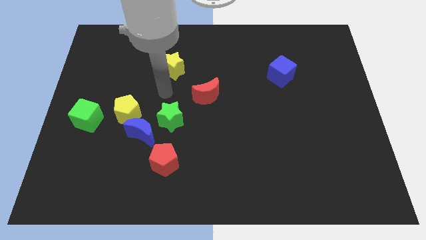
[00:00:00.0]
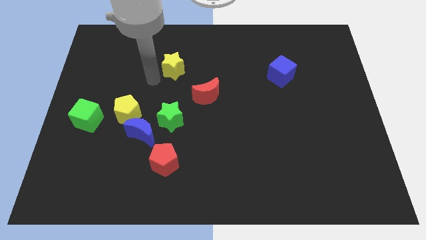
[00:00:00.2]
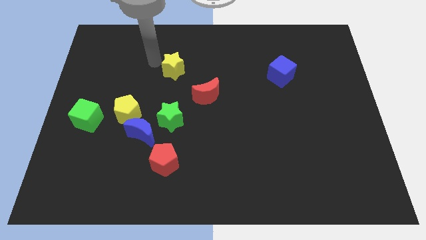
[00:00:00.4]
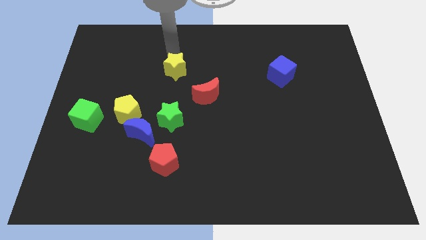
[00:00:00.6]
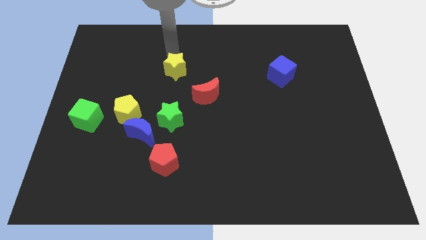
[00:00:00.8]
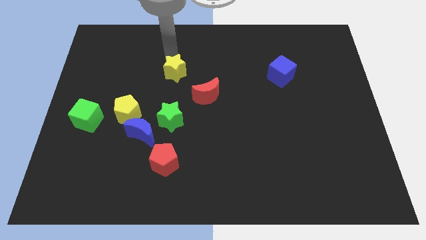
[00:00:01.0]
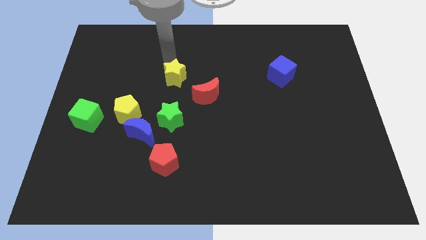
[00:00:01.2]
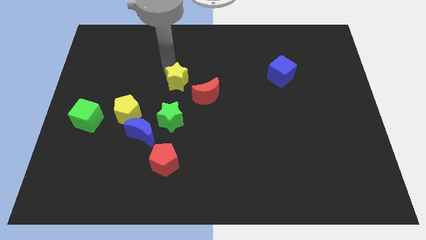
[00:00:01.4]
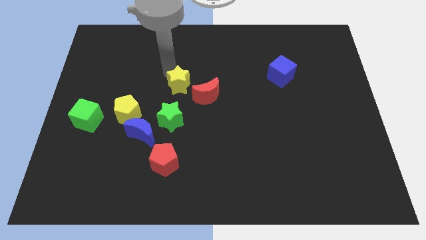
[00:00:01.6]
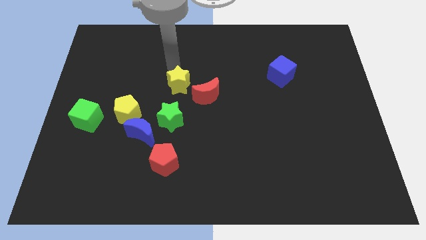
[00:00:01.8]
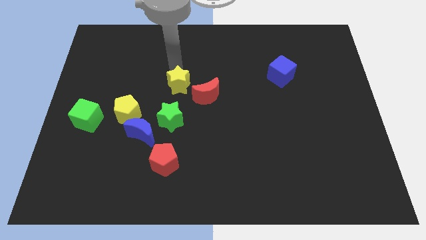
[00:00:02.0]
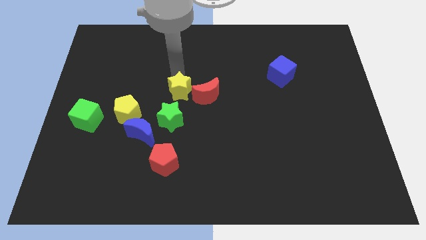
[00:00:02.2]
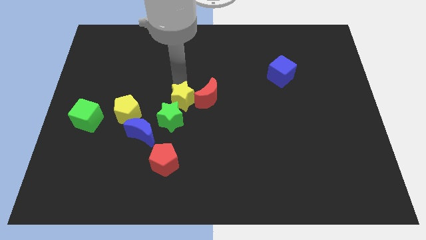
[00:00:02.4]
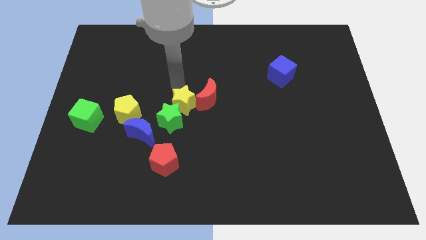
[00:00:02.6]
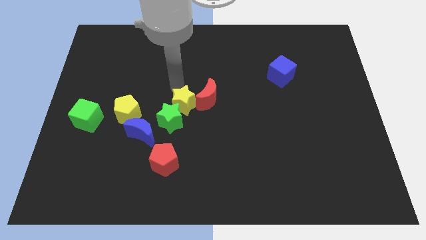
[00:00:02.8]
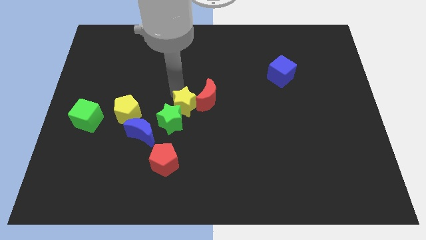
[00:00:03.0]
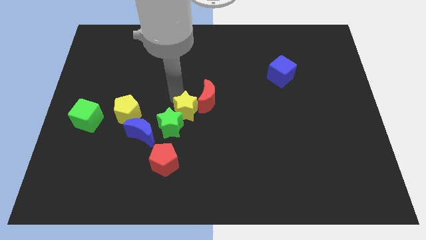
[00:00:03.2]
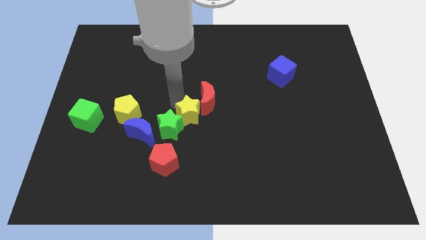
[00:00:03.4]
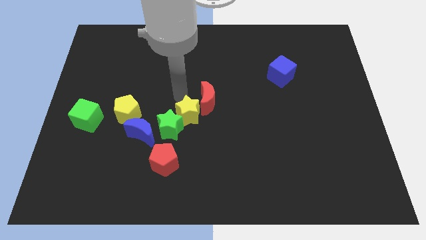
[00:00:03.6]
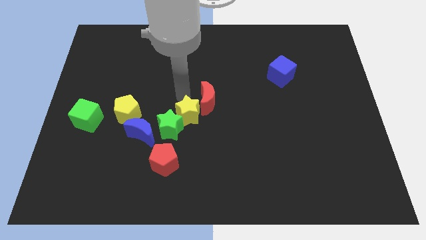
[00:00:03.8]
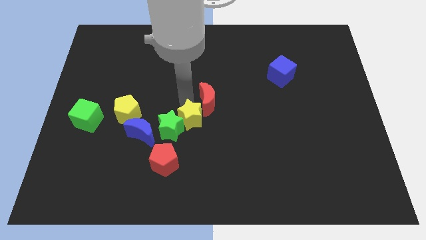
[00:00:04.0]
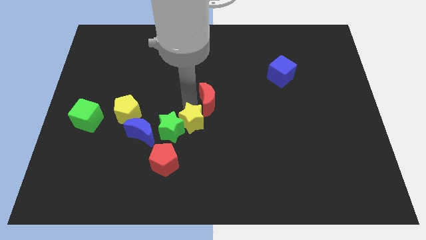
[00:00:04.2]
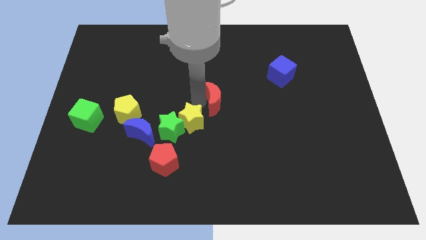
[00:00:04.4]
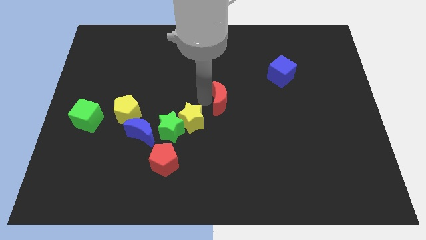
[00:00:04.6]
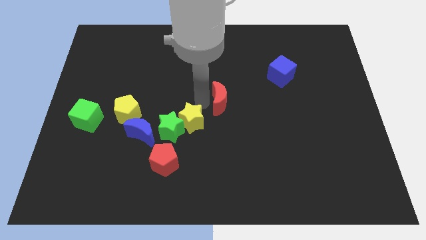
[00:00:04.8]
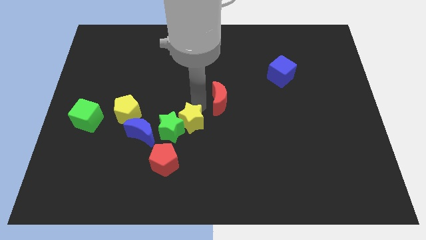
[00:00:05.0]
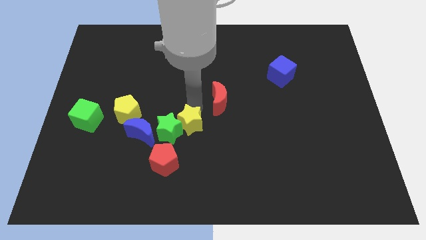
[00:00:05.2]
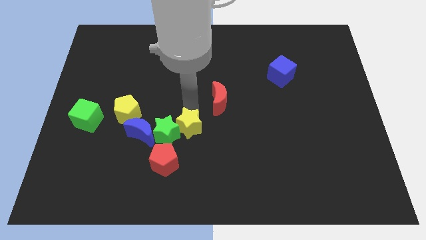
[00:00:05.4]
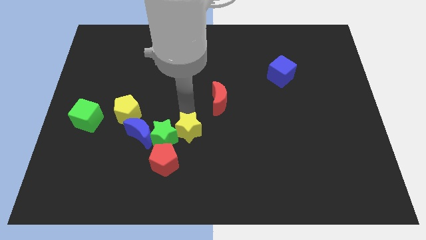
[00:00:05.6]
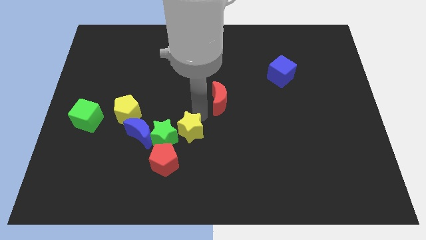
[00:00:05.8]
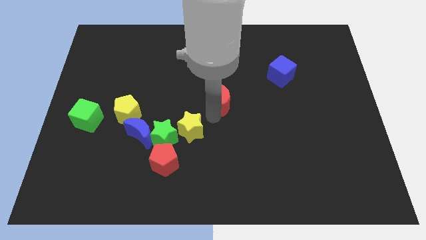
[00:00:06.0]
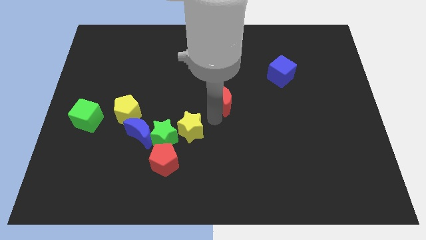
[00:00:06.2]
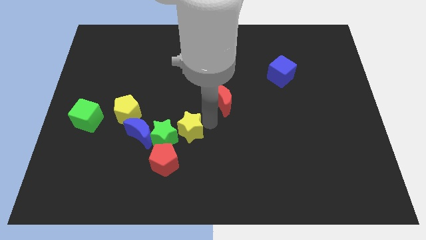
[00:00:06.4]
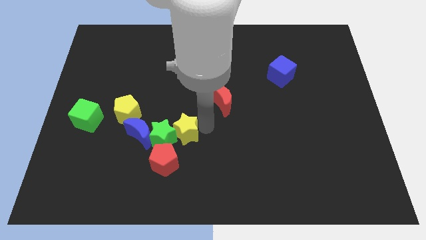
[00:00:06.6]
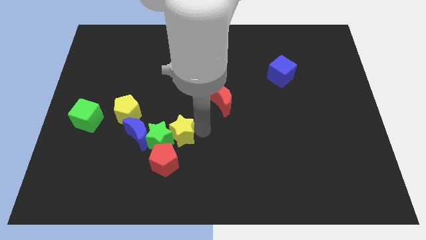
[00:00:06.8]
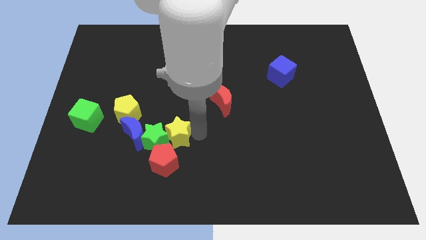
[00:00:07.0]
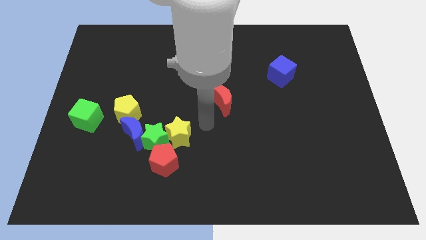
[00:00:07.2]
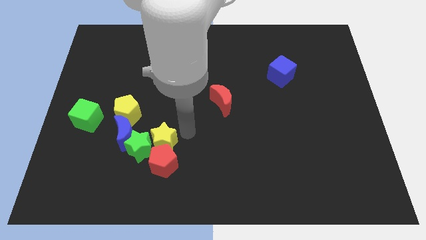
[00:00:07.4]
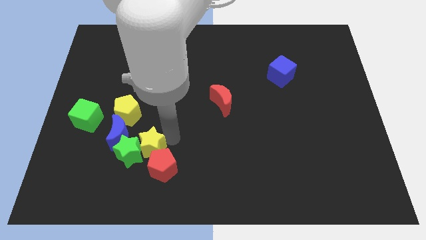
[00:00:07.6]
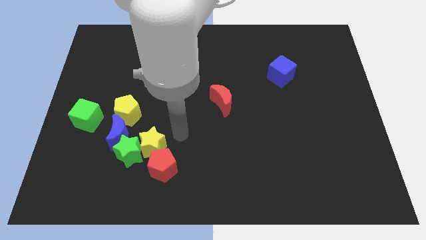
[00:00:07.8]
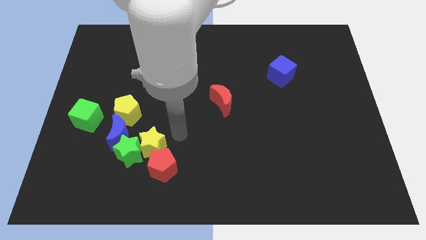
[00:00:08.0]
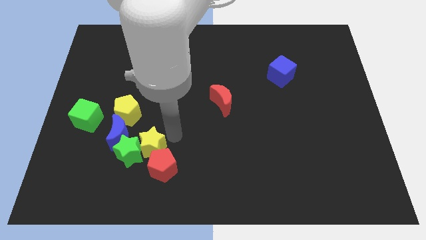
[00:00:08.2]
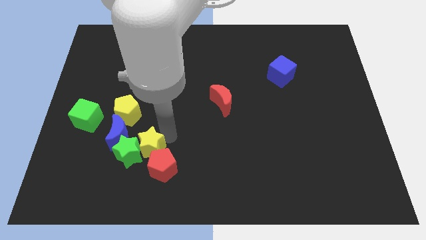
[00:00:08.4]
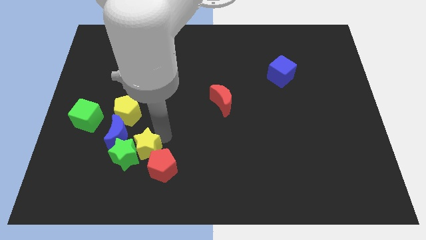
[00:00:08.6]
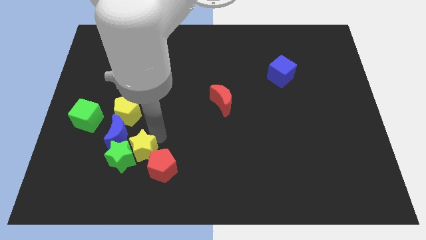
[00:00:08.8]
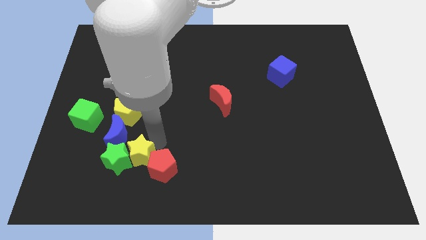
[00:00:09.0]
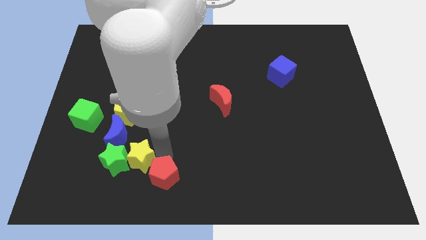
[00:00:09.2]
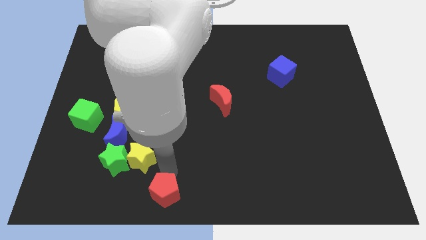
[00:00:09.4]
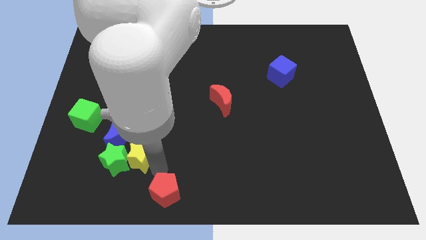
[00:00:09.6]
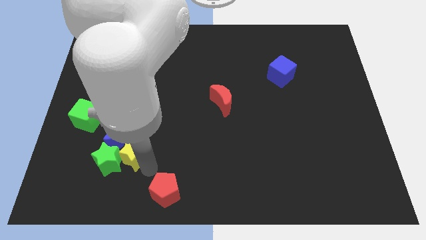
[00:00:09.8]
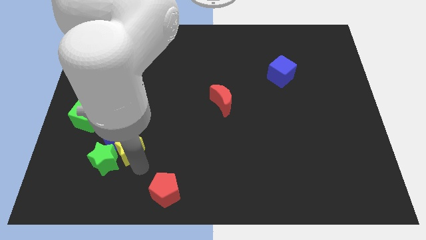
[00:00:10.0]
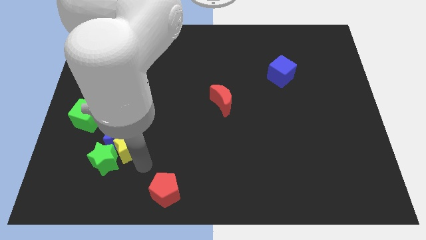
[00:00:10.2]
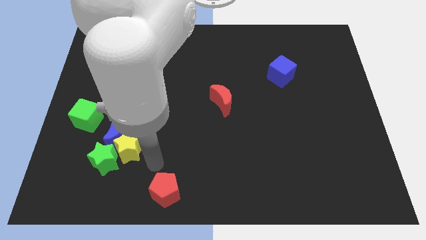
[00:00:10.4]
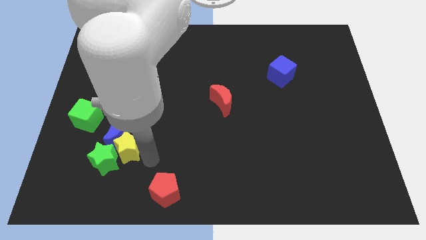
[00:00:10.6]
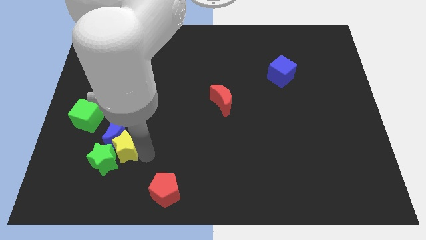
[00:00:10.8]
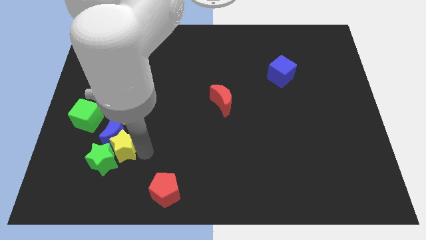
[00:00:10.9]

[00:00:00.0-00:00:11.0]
push the yellow star to the bottom right side of the green cube

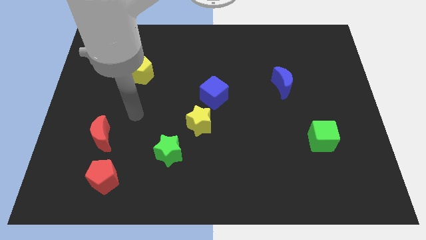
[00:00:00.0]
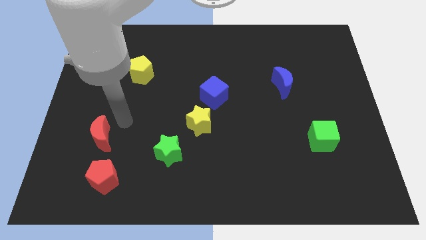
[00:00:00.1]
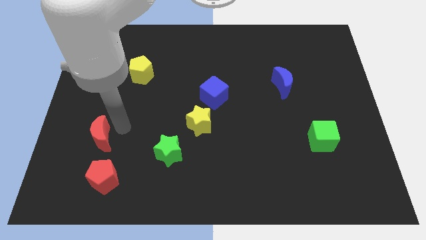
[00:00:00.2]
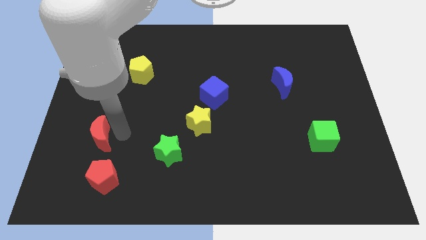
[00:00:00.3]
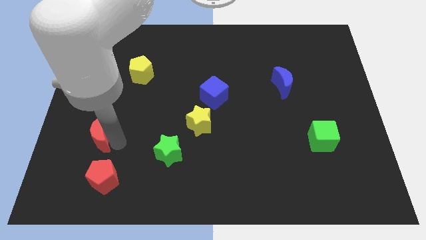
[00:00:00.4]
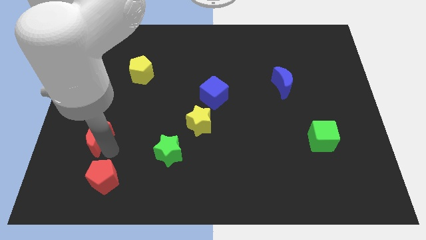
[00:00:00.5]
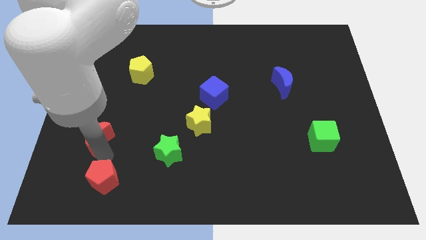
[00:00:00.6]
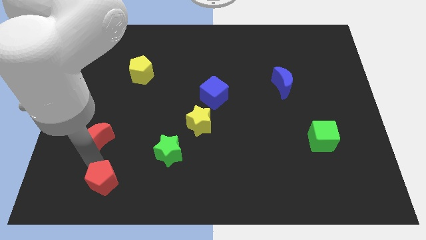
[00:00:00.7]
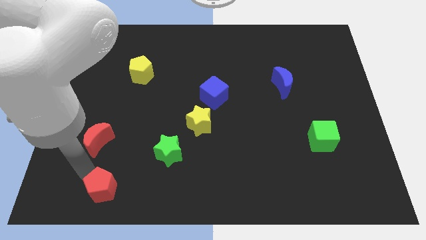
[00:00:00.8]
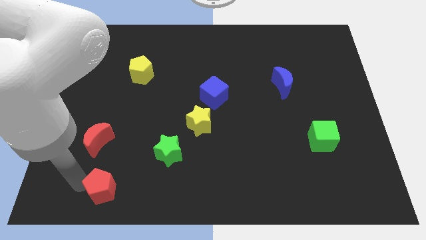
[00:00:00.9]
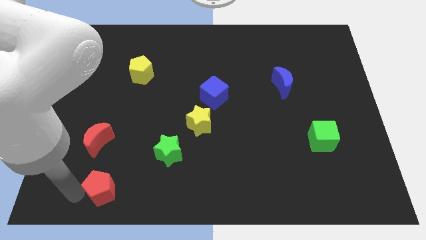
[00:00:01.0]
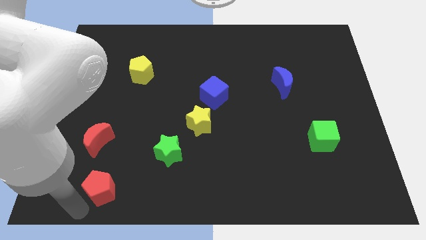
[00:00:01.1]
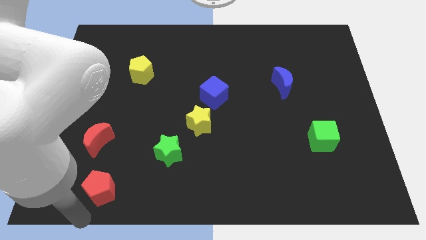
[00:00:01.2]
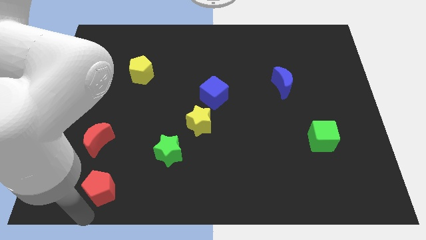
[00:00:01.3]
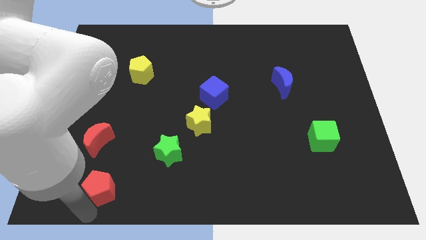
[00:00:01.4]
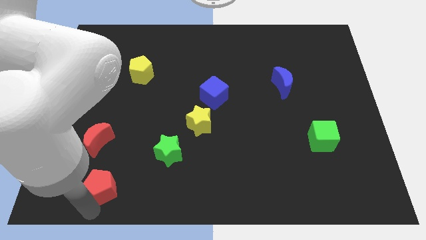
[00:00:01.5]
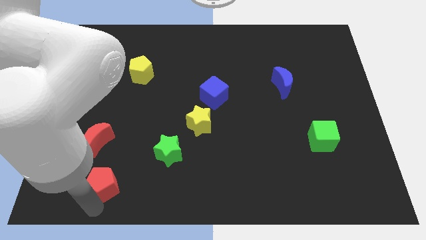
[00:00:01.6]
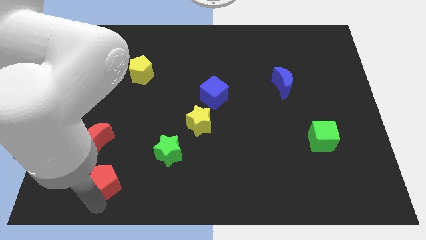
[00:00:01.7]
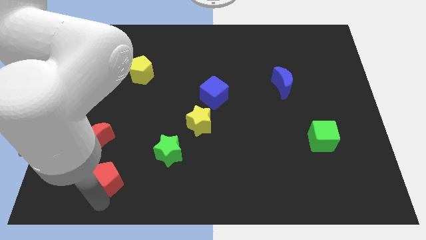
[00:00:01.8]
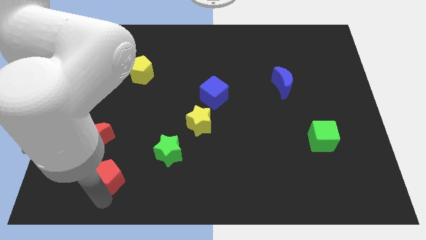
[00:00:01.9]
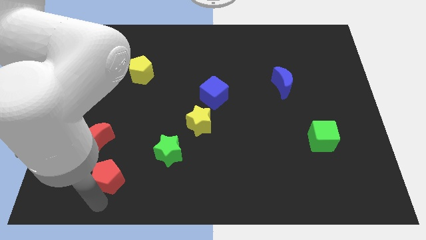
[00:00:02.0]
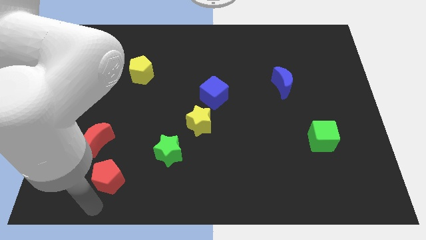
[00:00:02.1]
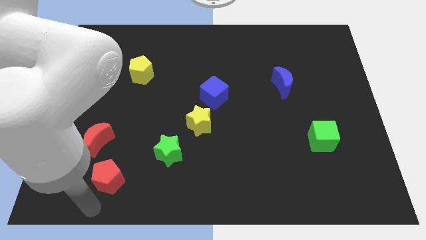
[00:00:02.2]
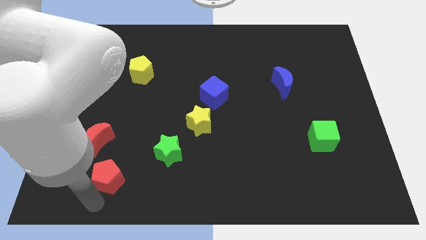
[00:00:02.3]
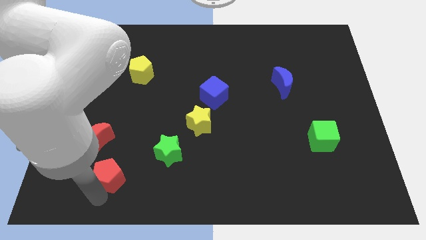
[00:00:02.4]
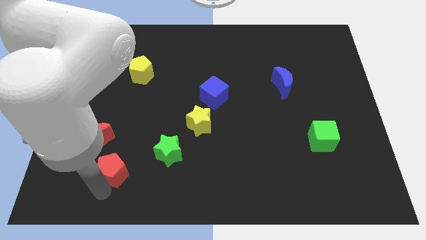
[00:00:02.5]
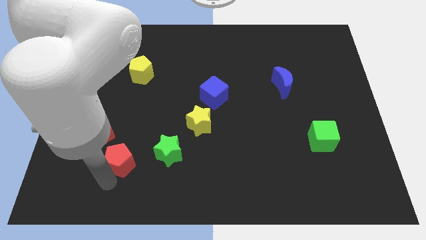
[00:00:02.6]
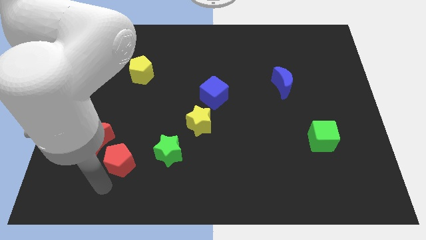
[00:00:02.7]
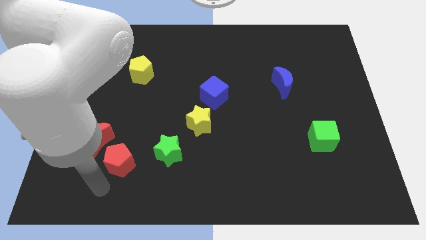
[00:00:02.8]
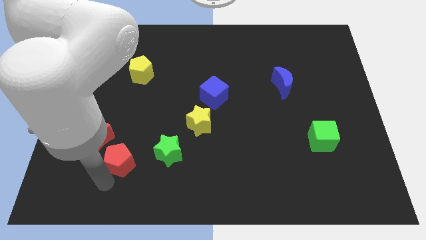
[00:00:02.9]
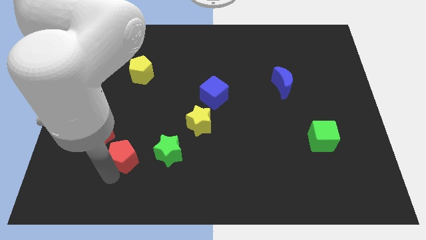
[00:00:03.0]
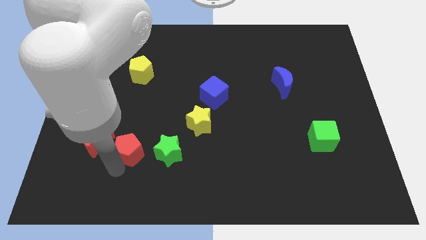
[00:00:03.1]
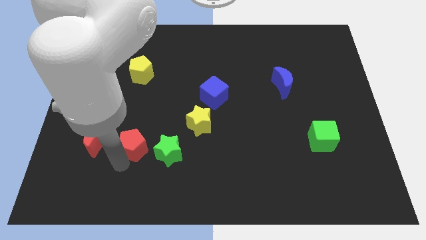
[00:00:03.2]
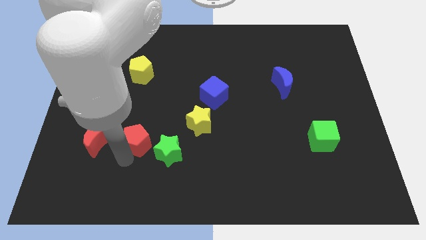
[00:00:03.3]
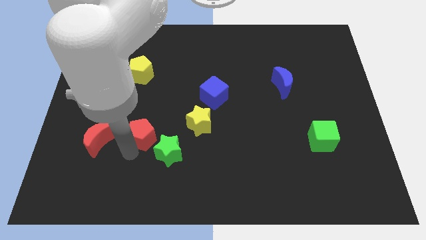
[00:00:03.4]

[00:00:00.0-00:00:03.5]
push the red pentagon to the left of the yellow star
